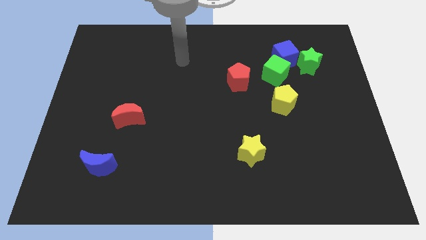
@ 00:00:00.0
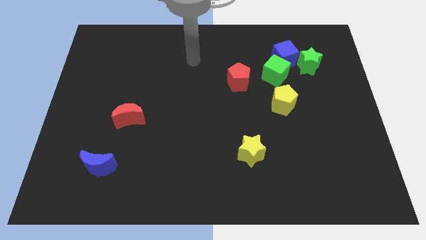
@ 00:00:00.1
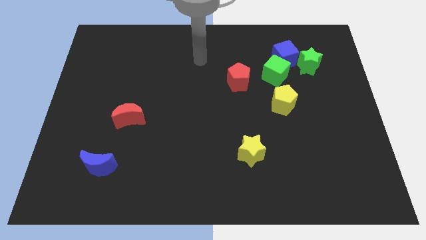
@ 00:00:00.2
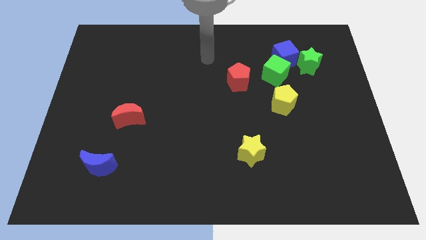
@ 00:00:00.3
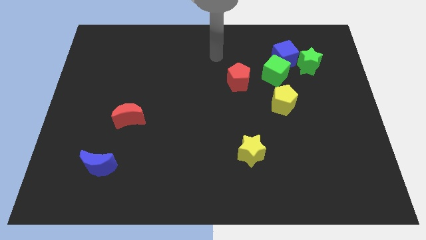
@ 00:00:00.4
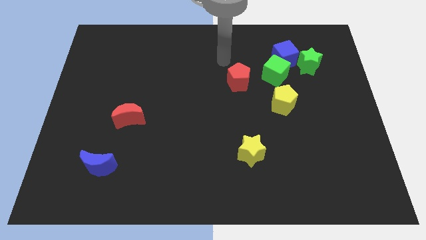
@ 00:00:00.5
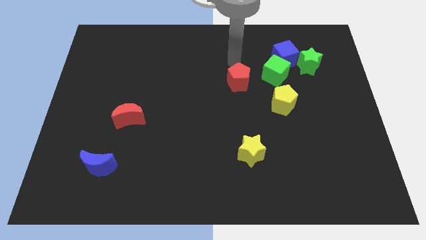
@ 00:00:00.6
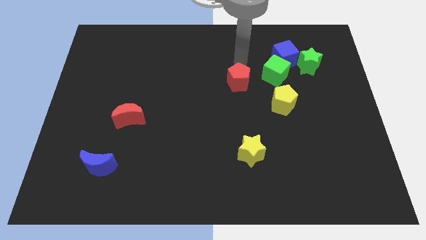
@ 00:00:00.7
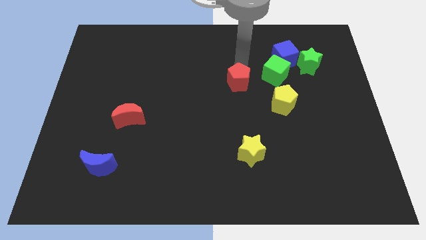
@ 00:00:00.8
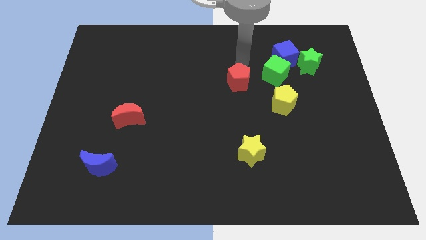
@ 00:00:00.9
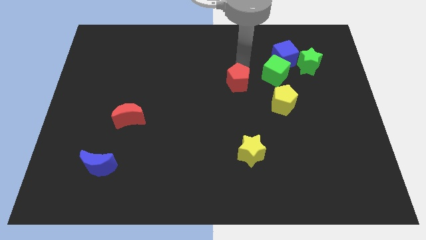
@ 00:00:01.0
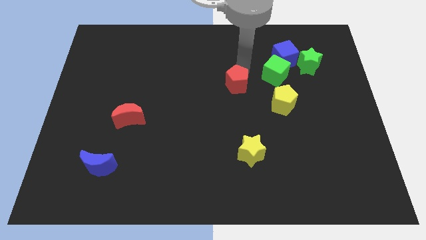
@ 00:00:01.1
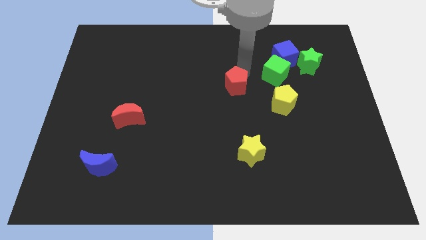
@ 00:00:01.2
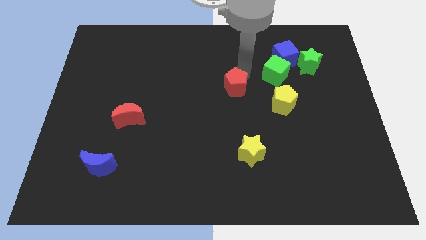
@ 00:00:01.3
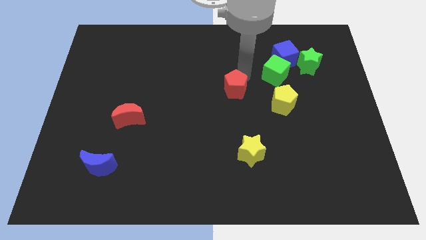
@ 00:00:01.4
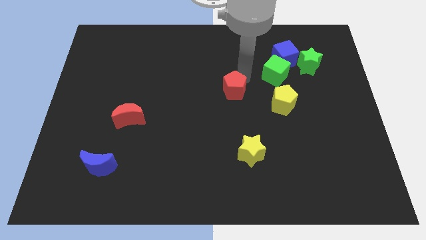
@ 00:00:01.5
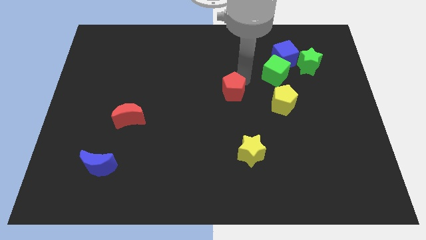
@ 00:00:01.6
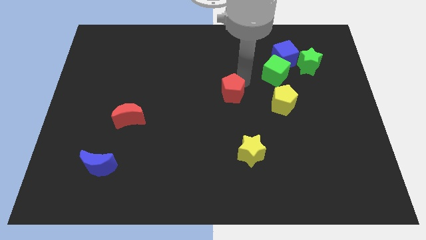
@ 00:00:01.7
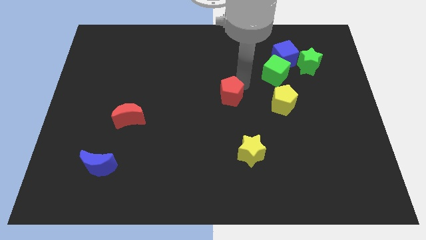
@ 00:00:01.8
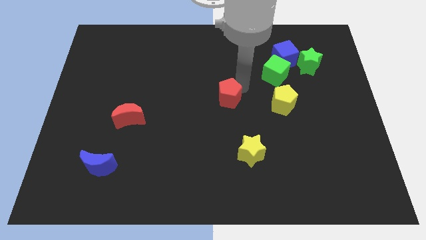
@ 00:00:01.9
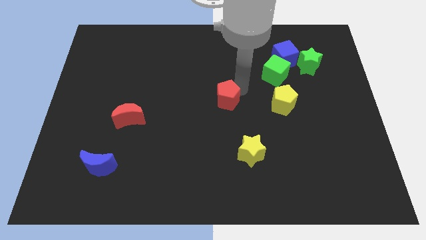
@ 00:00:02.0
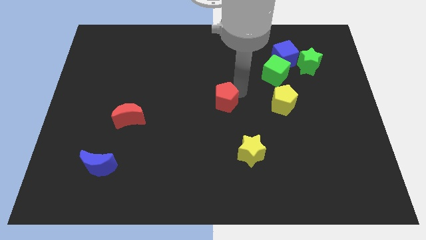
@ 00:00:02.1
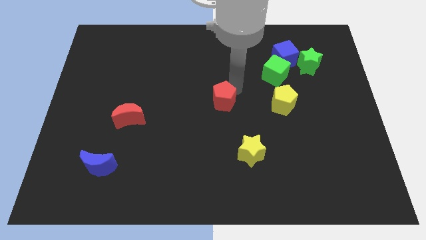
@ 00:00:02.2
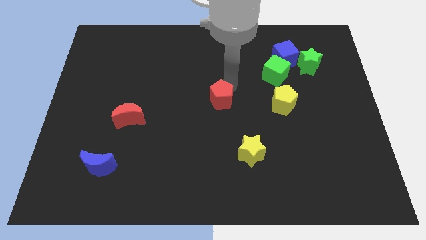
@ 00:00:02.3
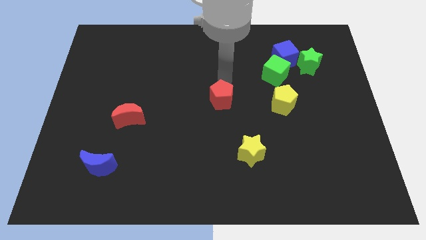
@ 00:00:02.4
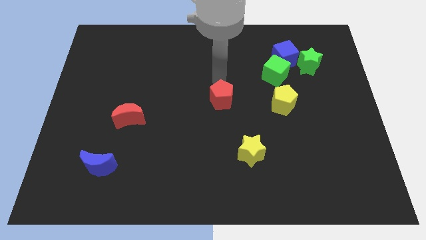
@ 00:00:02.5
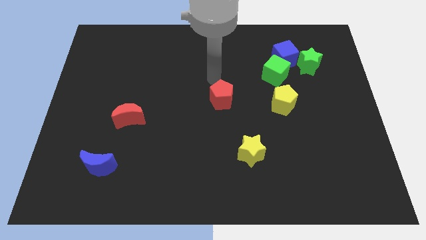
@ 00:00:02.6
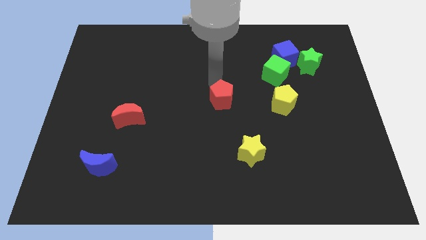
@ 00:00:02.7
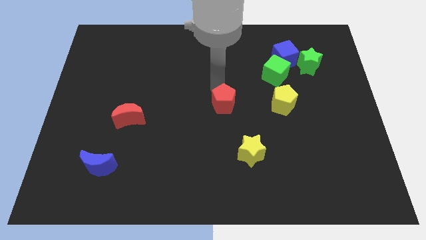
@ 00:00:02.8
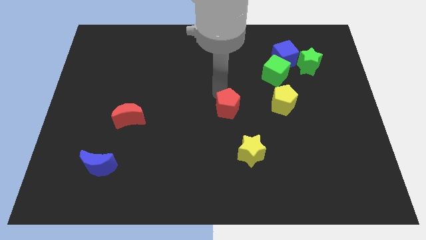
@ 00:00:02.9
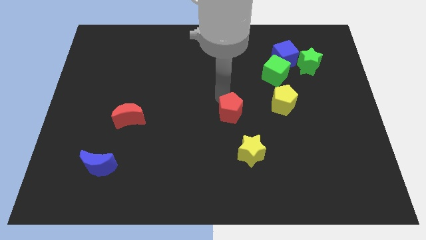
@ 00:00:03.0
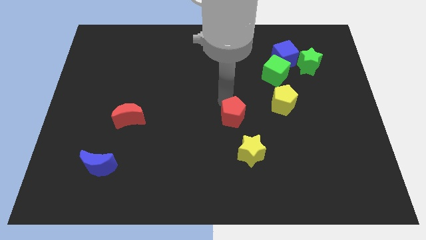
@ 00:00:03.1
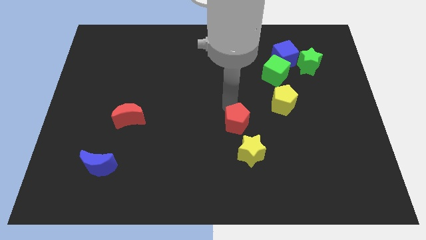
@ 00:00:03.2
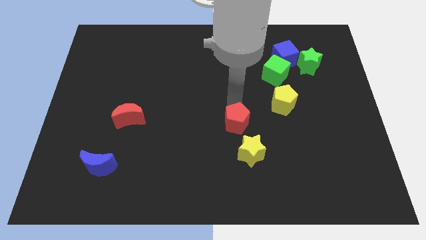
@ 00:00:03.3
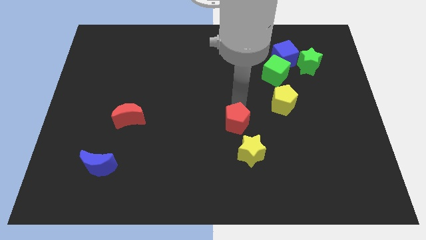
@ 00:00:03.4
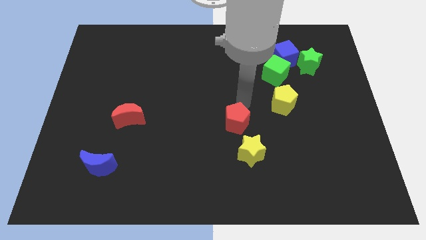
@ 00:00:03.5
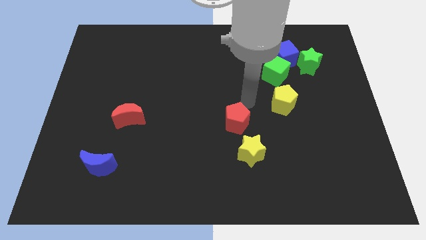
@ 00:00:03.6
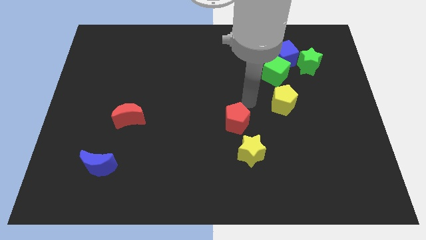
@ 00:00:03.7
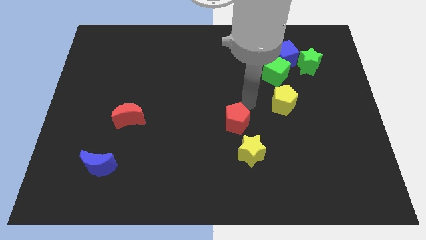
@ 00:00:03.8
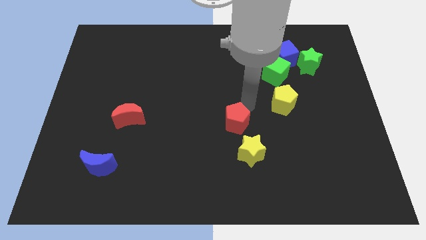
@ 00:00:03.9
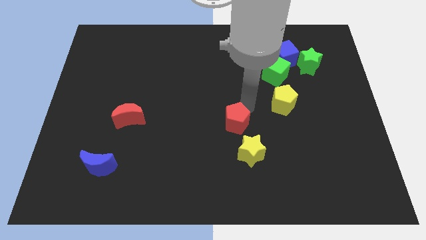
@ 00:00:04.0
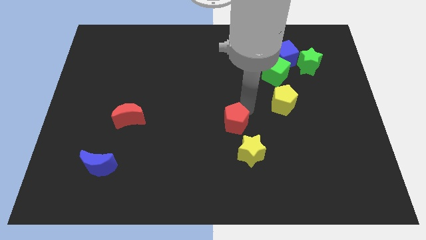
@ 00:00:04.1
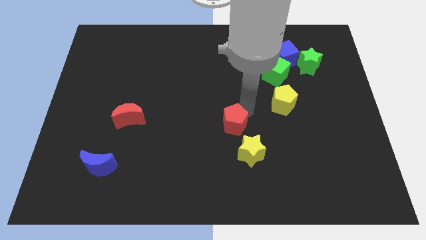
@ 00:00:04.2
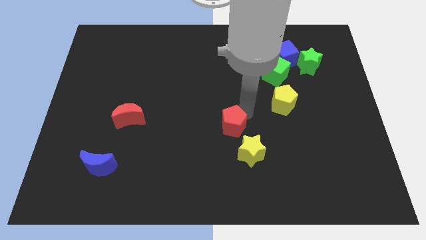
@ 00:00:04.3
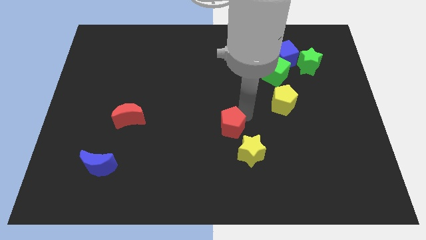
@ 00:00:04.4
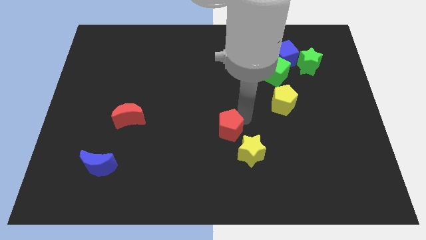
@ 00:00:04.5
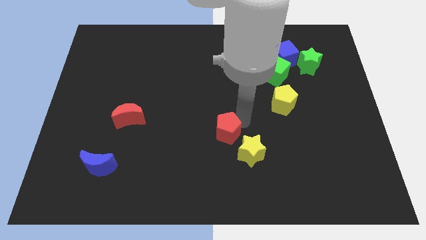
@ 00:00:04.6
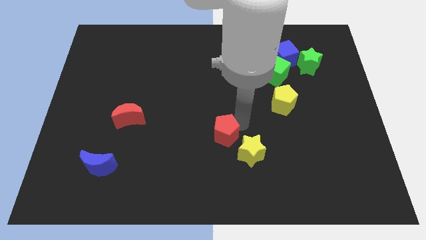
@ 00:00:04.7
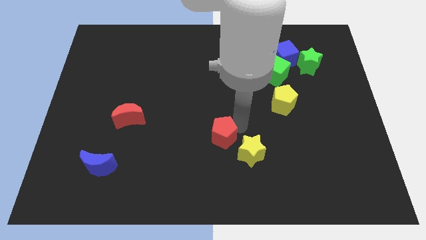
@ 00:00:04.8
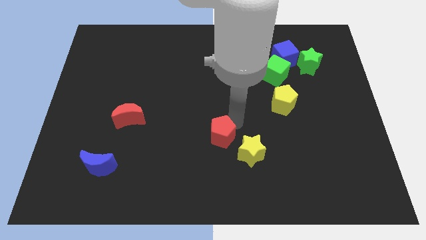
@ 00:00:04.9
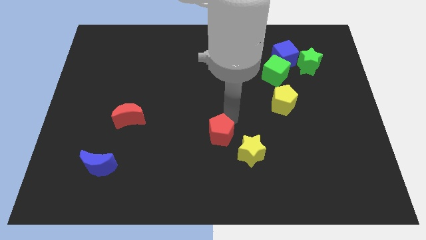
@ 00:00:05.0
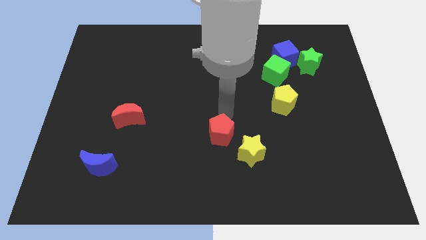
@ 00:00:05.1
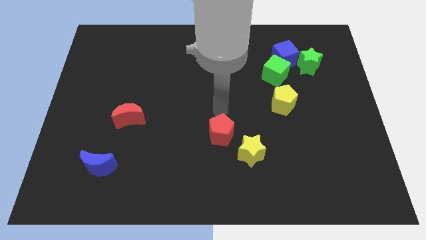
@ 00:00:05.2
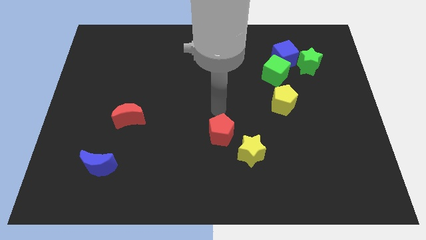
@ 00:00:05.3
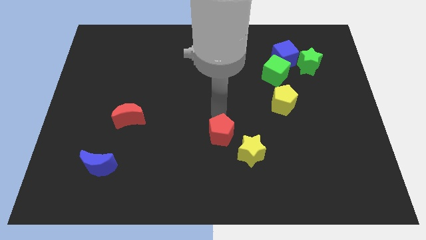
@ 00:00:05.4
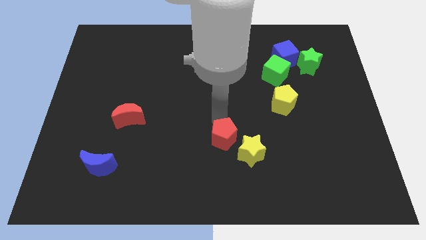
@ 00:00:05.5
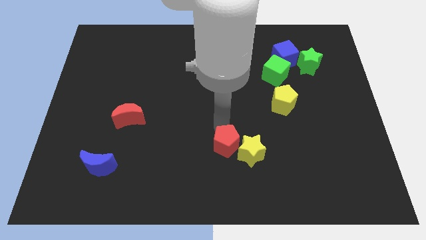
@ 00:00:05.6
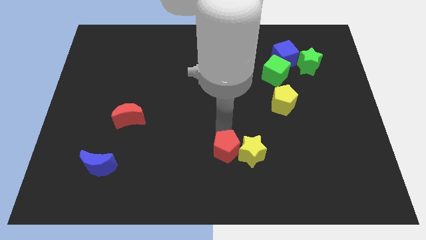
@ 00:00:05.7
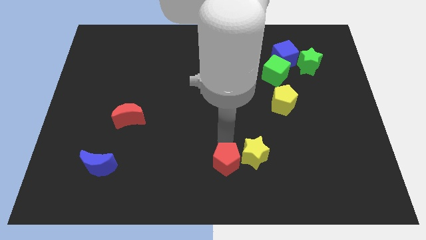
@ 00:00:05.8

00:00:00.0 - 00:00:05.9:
move the red pentagon to the bottom side

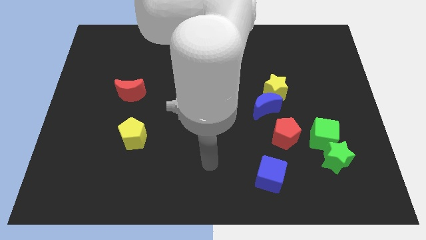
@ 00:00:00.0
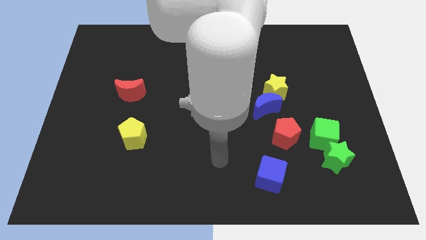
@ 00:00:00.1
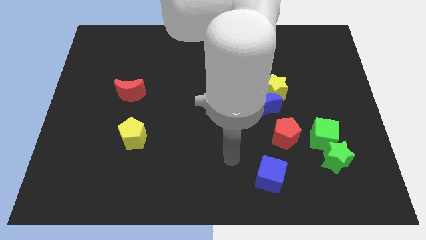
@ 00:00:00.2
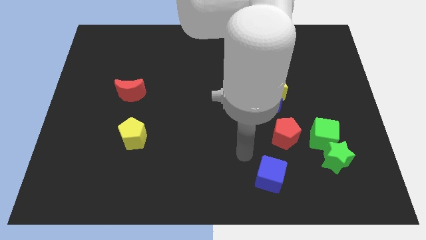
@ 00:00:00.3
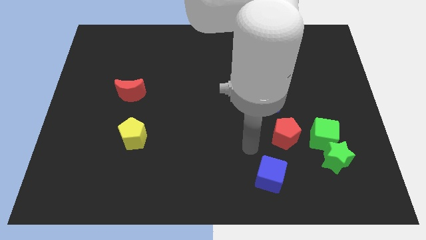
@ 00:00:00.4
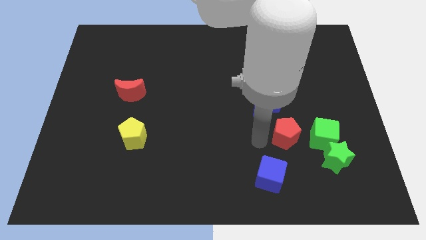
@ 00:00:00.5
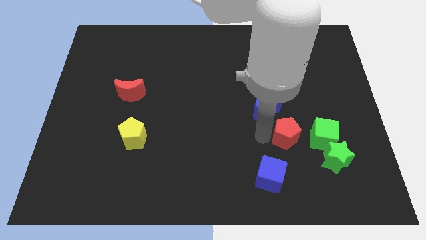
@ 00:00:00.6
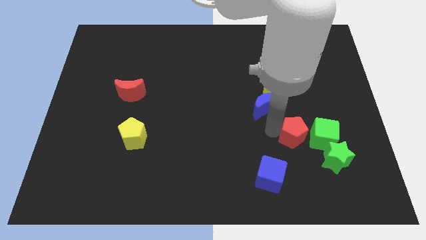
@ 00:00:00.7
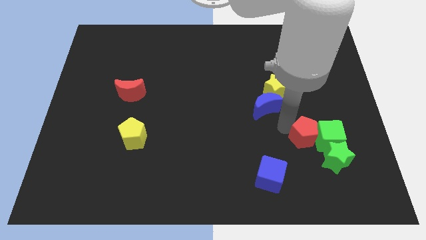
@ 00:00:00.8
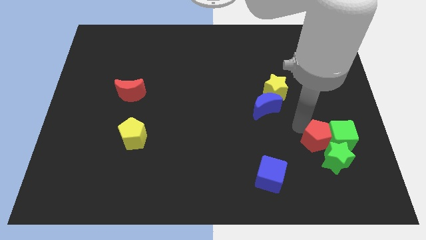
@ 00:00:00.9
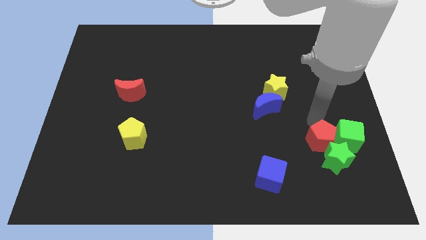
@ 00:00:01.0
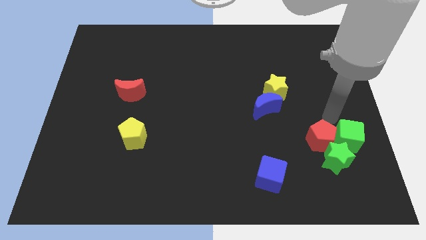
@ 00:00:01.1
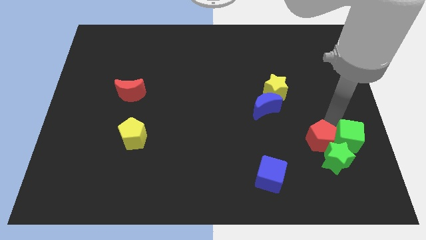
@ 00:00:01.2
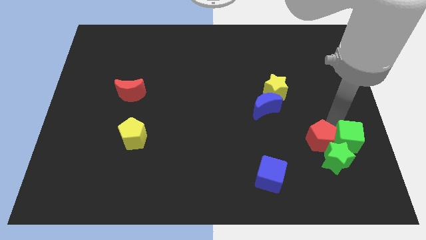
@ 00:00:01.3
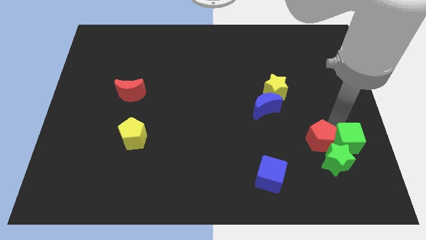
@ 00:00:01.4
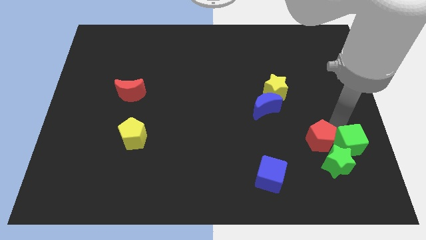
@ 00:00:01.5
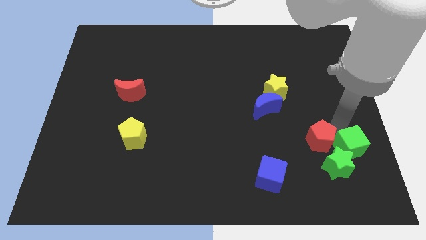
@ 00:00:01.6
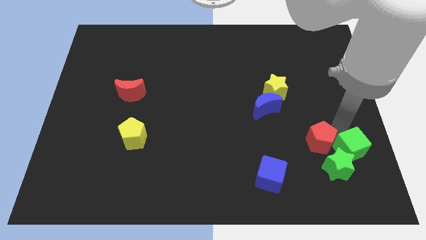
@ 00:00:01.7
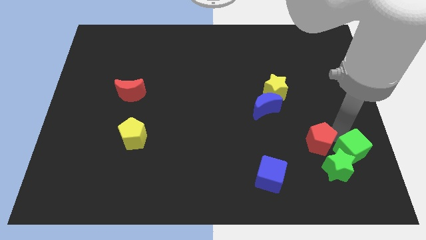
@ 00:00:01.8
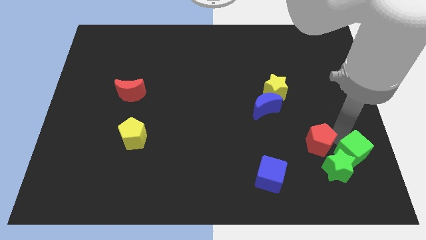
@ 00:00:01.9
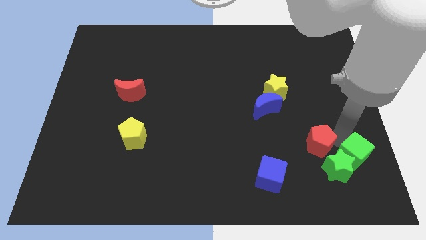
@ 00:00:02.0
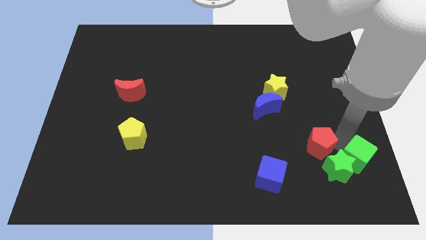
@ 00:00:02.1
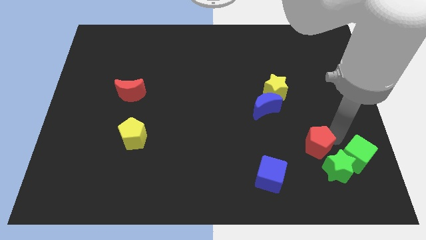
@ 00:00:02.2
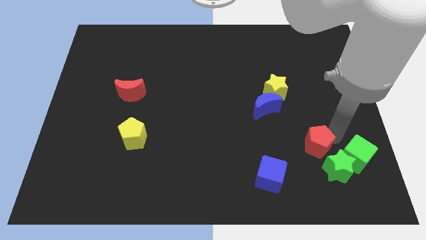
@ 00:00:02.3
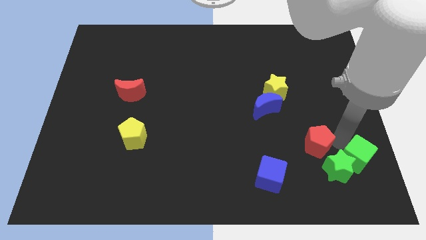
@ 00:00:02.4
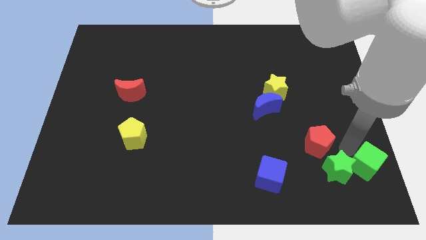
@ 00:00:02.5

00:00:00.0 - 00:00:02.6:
push the green cube to the bottom right of the board
